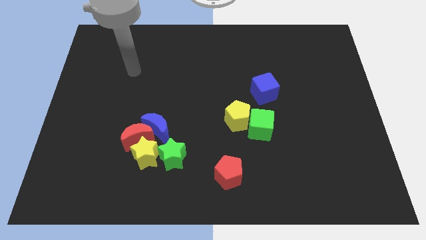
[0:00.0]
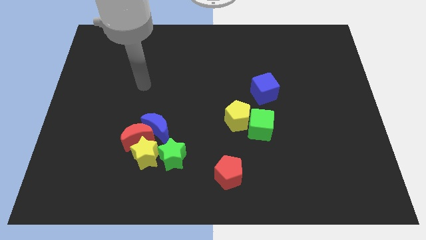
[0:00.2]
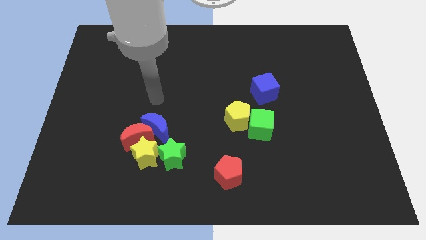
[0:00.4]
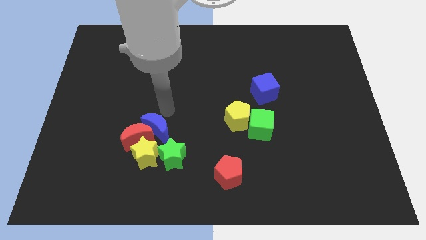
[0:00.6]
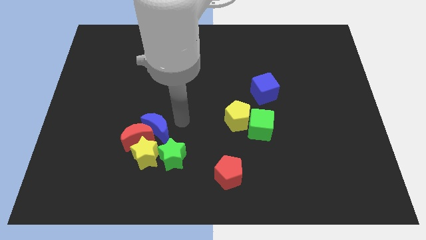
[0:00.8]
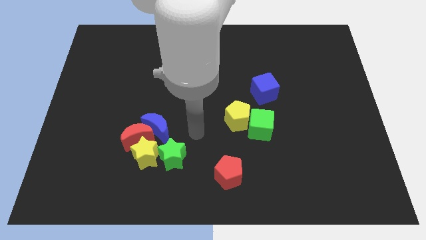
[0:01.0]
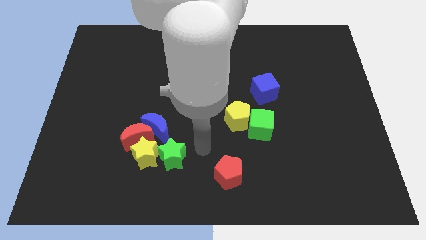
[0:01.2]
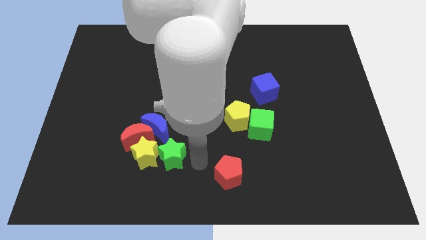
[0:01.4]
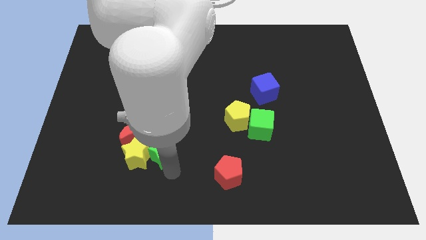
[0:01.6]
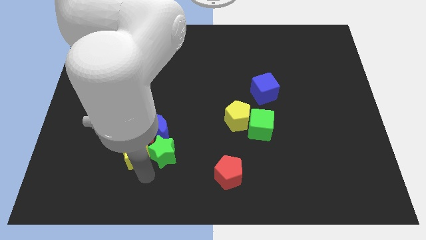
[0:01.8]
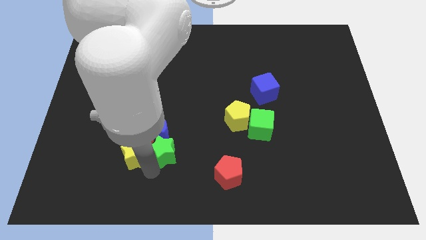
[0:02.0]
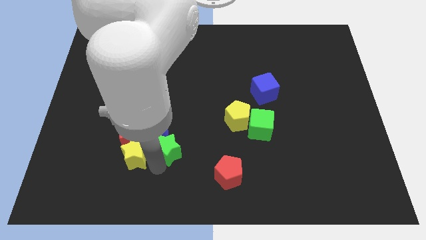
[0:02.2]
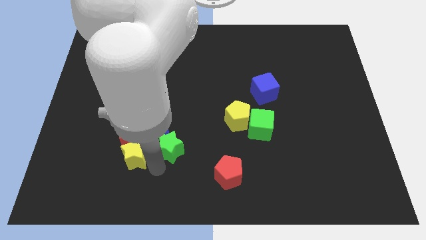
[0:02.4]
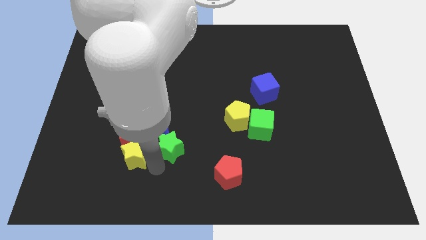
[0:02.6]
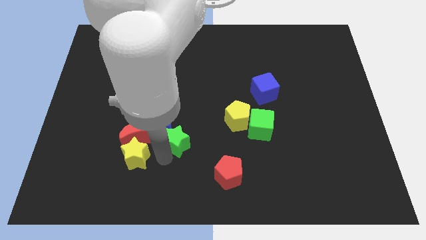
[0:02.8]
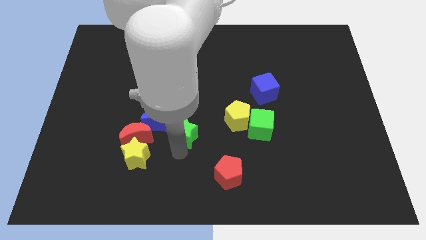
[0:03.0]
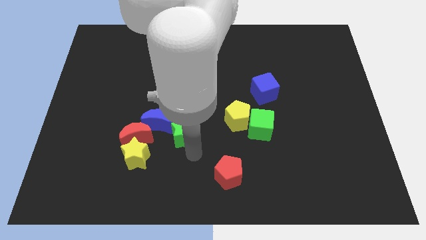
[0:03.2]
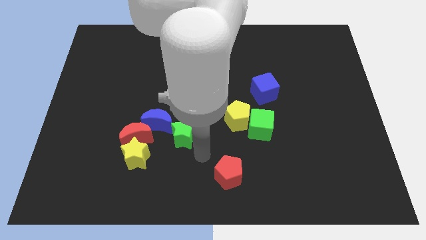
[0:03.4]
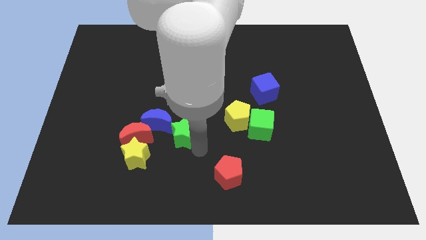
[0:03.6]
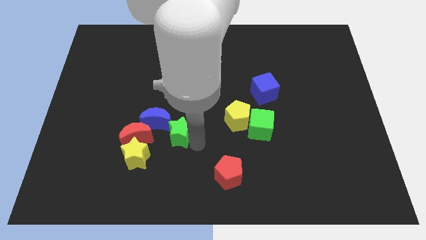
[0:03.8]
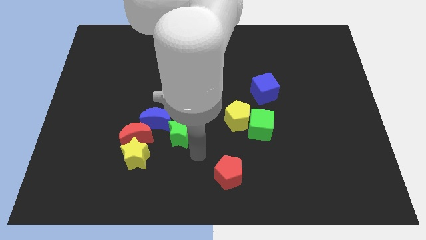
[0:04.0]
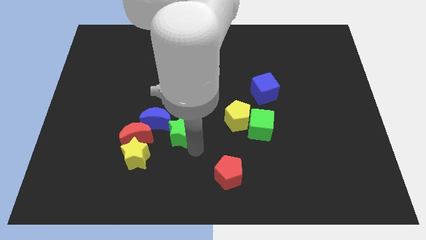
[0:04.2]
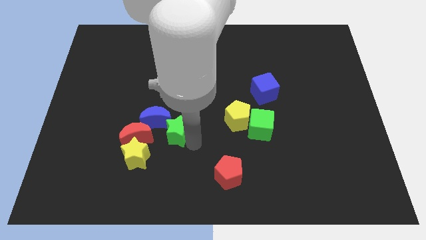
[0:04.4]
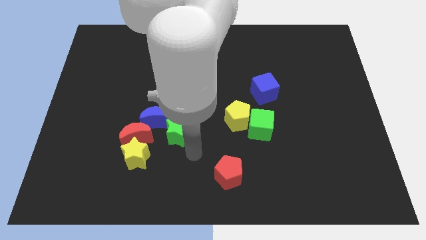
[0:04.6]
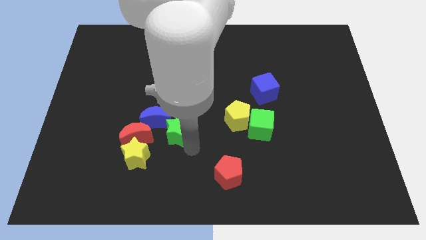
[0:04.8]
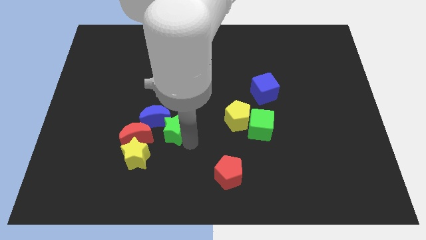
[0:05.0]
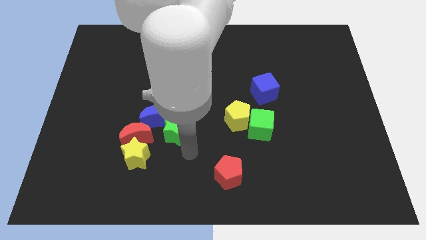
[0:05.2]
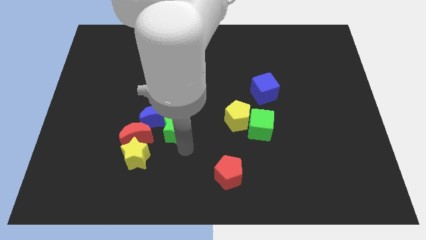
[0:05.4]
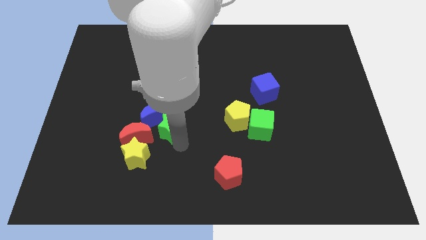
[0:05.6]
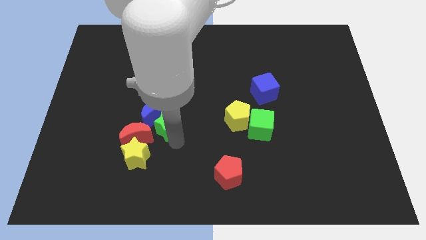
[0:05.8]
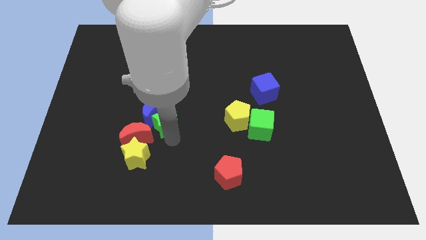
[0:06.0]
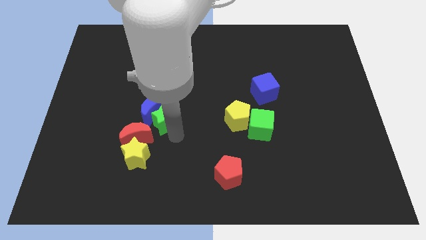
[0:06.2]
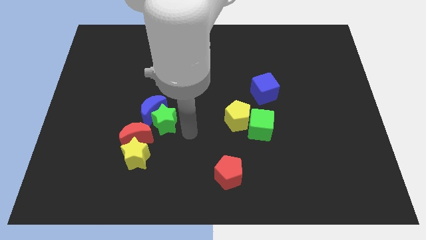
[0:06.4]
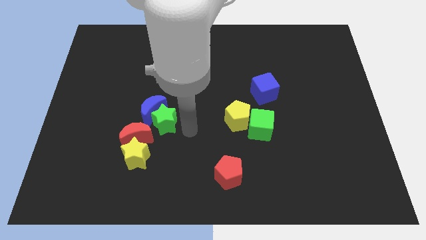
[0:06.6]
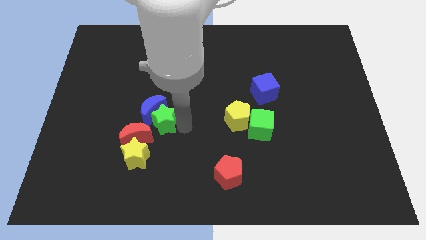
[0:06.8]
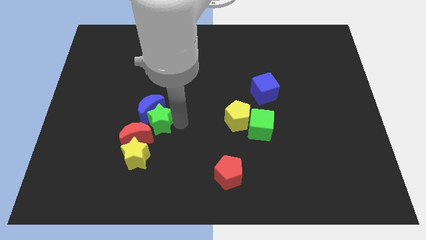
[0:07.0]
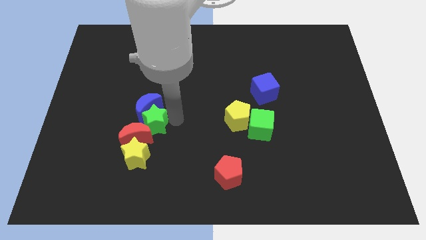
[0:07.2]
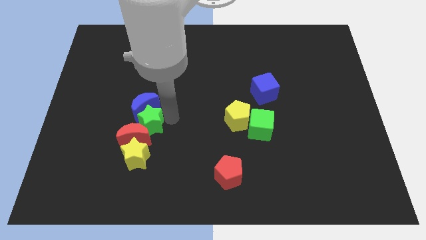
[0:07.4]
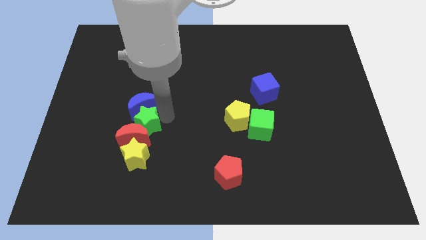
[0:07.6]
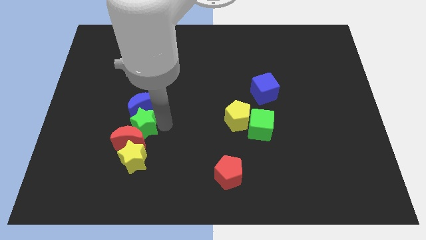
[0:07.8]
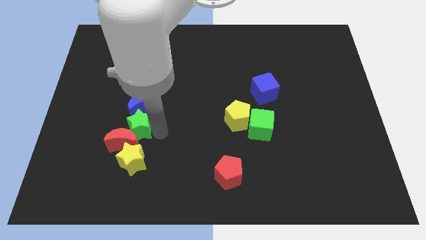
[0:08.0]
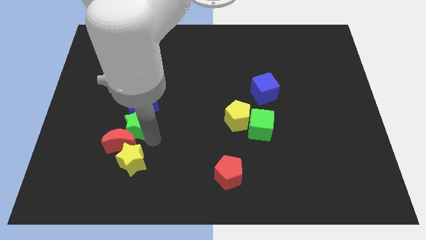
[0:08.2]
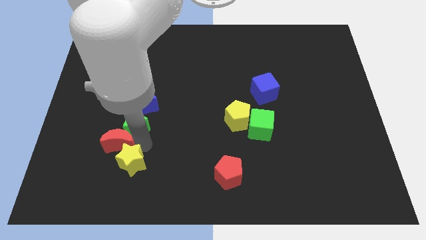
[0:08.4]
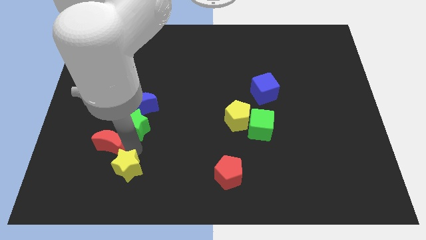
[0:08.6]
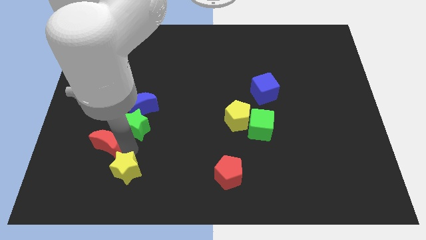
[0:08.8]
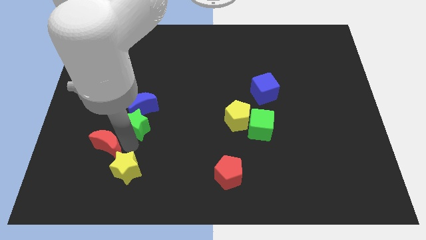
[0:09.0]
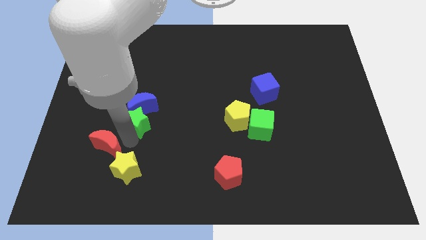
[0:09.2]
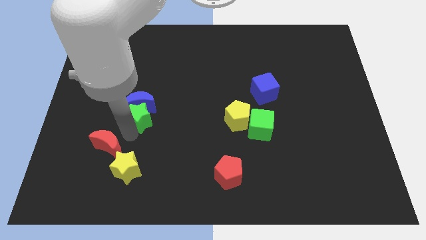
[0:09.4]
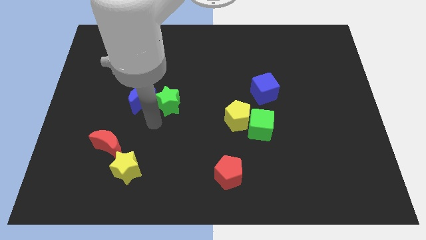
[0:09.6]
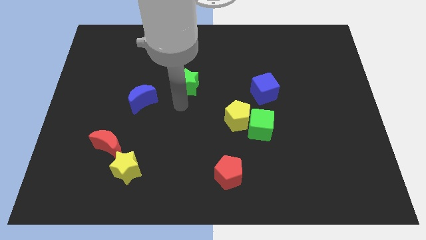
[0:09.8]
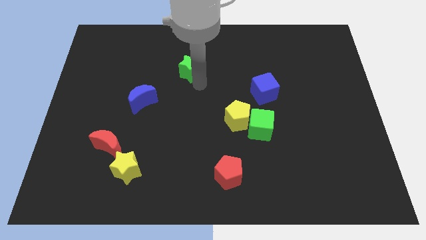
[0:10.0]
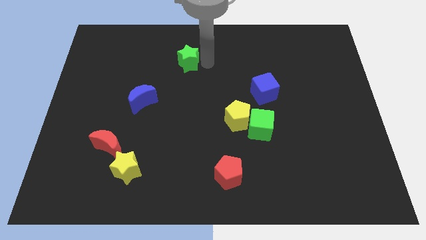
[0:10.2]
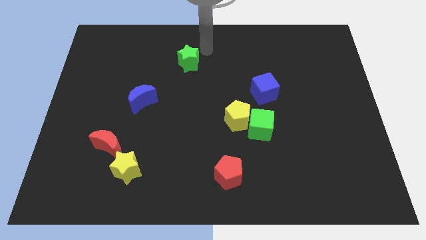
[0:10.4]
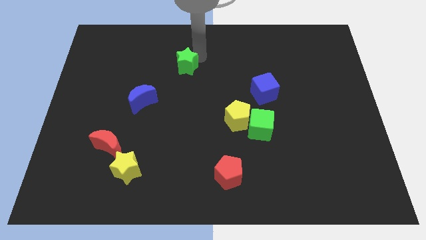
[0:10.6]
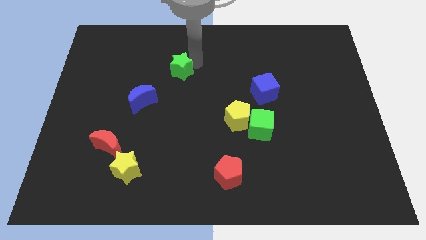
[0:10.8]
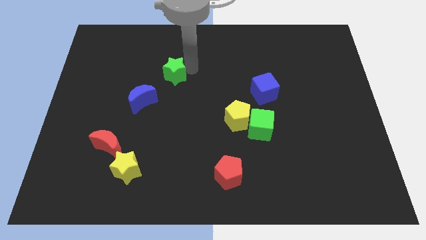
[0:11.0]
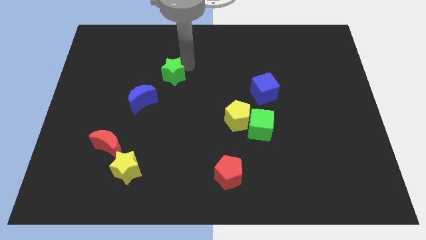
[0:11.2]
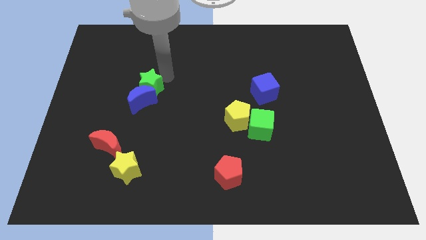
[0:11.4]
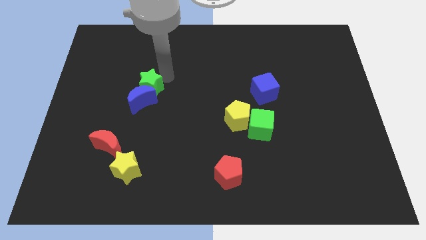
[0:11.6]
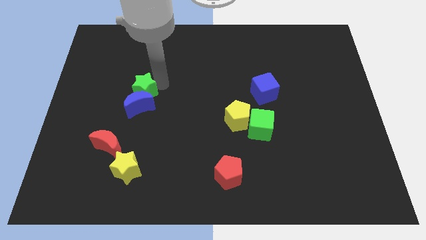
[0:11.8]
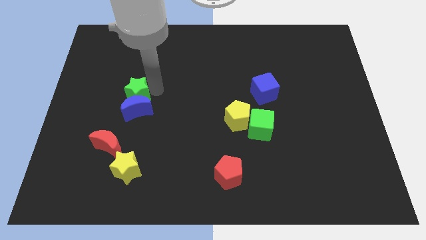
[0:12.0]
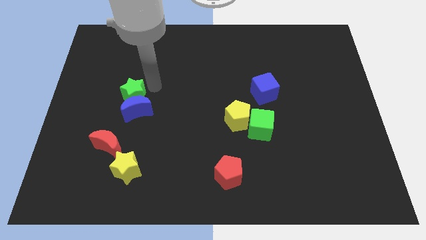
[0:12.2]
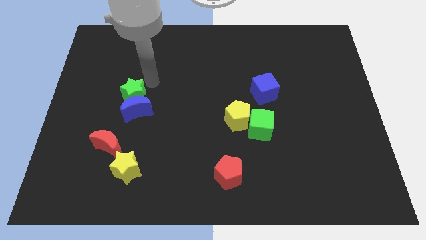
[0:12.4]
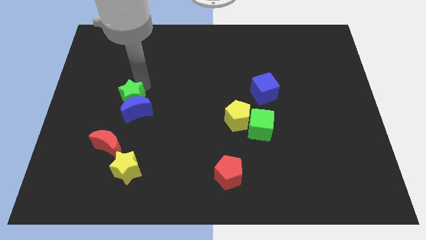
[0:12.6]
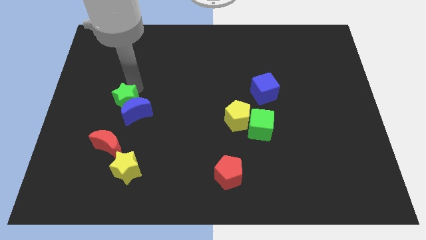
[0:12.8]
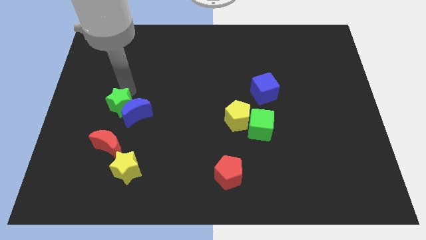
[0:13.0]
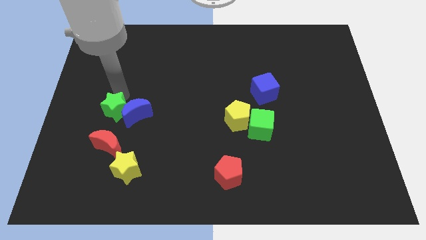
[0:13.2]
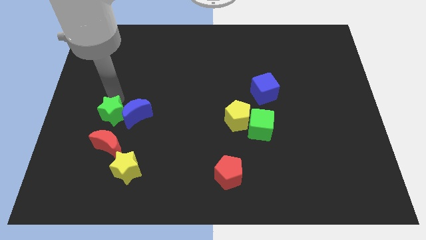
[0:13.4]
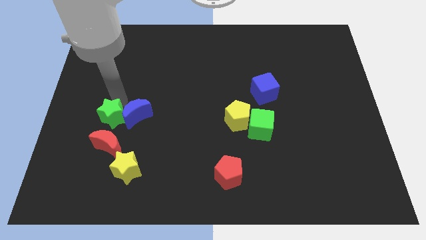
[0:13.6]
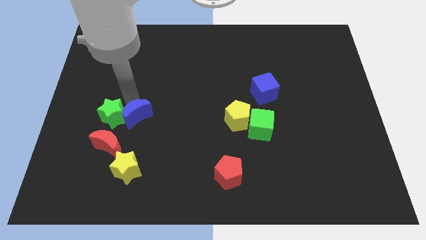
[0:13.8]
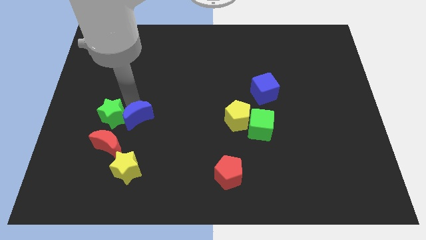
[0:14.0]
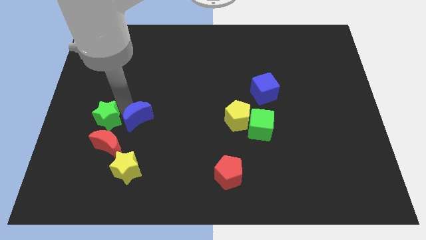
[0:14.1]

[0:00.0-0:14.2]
move the green star to the top left of the red moon
